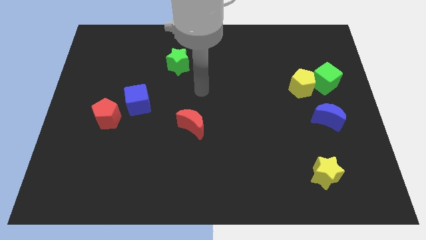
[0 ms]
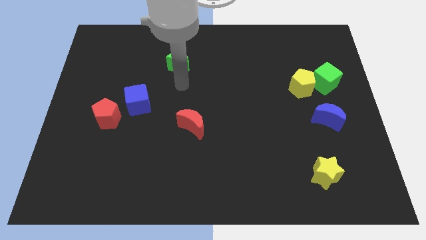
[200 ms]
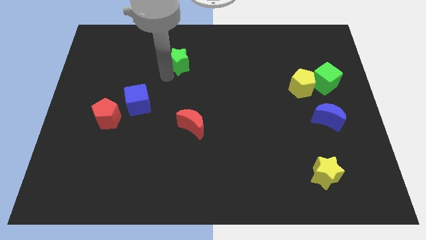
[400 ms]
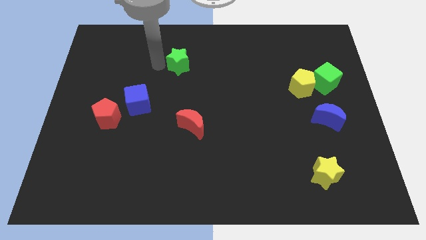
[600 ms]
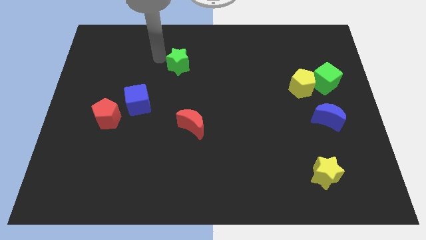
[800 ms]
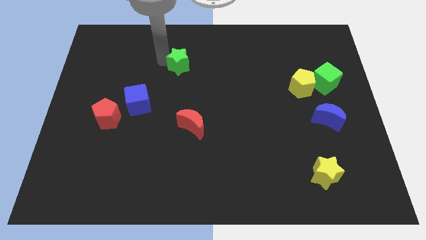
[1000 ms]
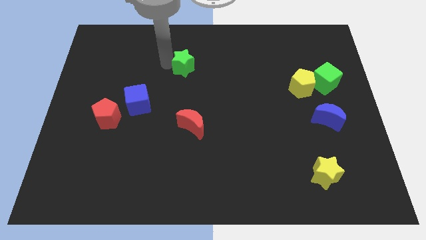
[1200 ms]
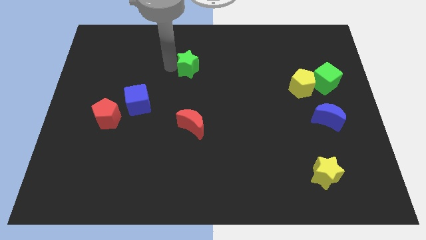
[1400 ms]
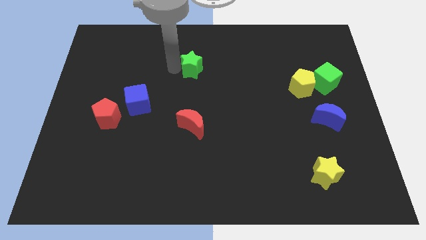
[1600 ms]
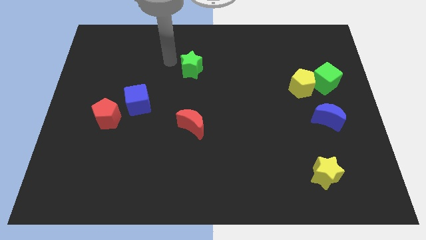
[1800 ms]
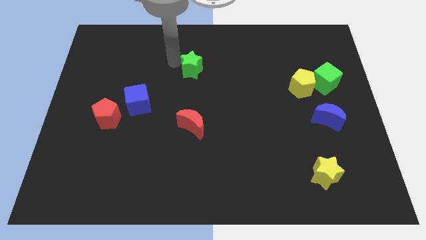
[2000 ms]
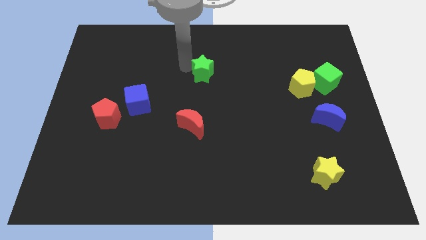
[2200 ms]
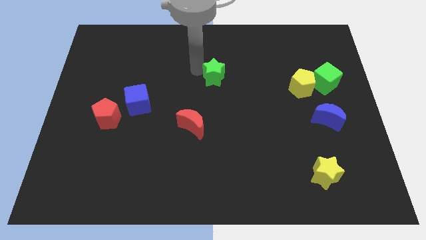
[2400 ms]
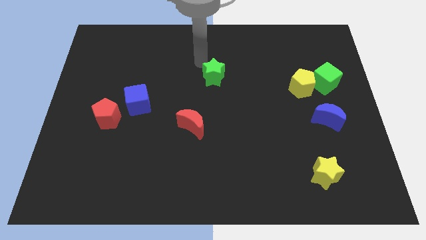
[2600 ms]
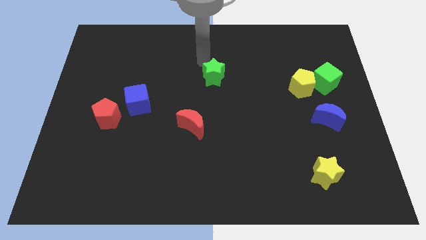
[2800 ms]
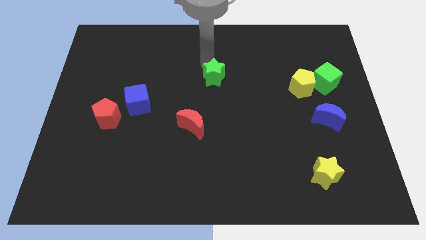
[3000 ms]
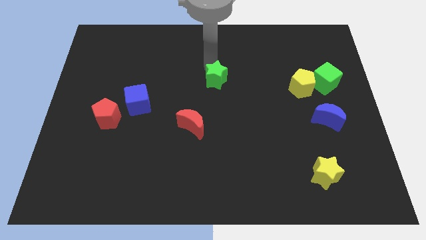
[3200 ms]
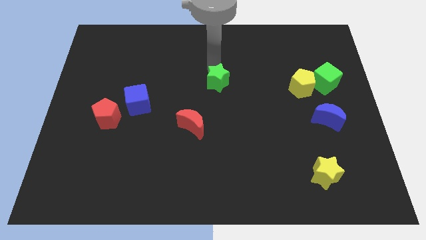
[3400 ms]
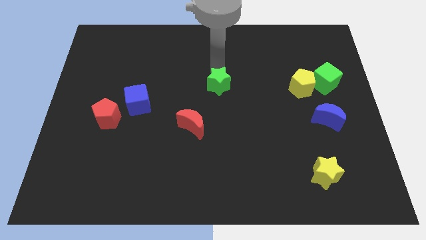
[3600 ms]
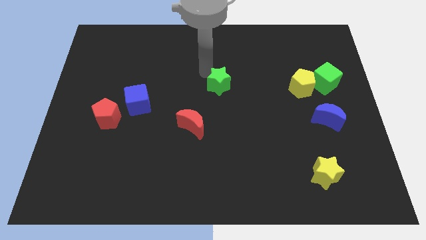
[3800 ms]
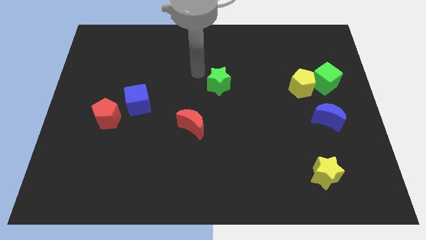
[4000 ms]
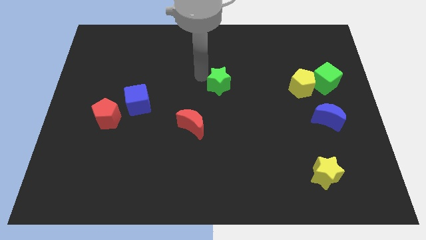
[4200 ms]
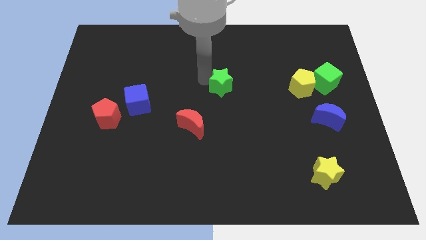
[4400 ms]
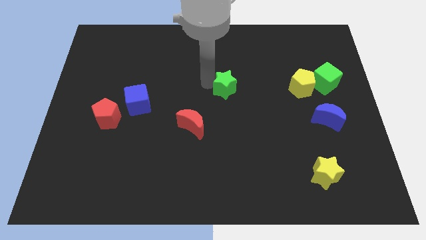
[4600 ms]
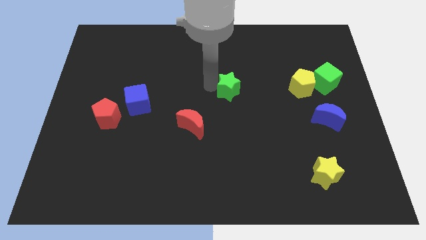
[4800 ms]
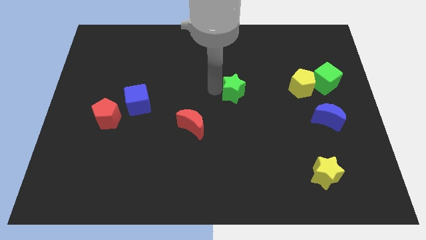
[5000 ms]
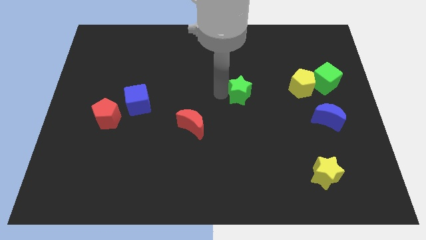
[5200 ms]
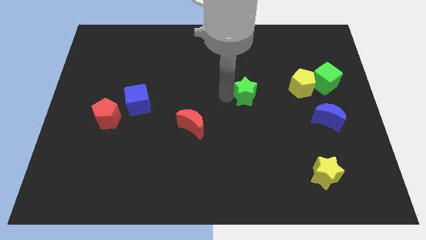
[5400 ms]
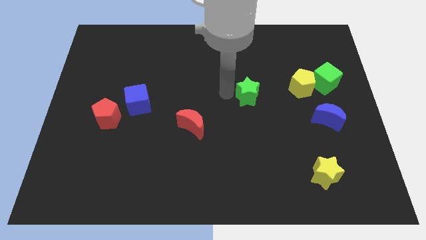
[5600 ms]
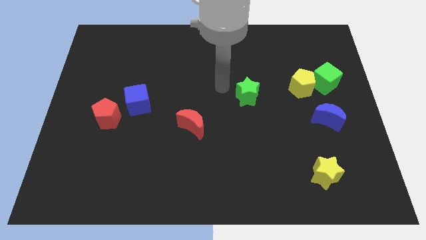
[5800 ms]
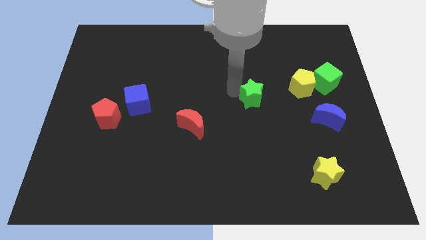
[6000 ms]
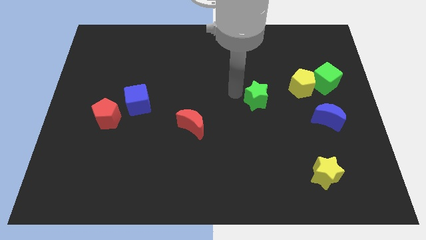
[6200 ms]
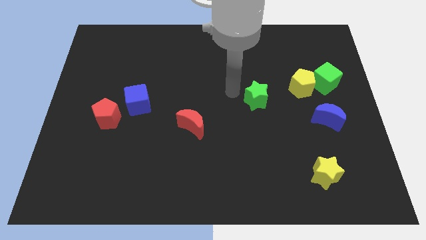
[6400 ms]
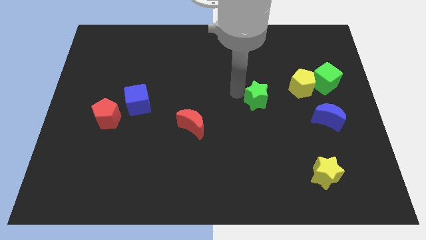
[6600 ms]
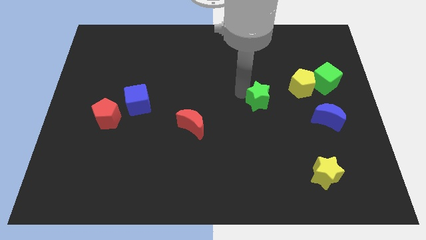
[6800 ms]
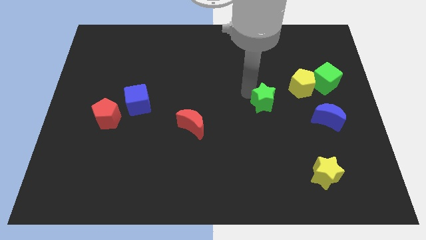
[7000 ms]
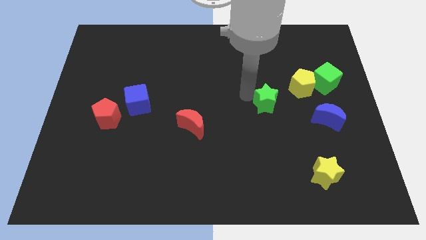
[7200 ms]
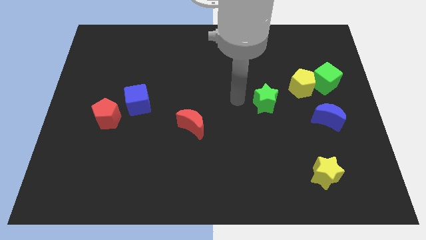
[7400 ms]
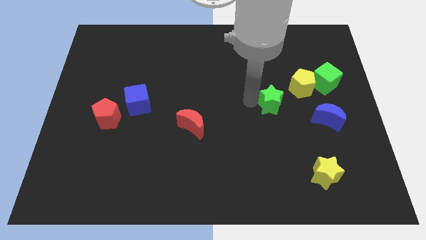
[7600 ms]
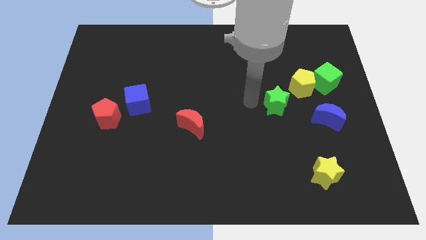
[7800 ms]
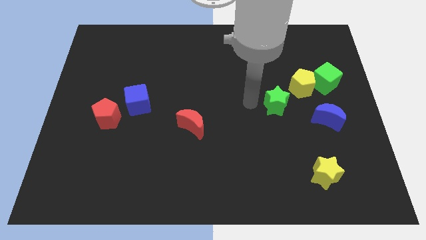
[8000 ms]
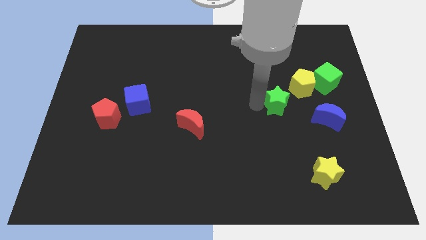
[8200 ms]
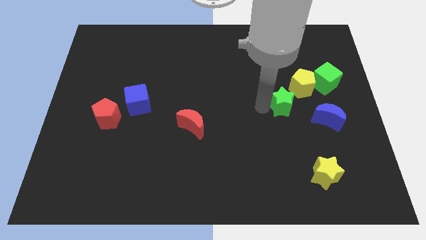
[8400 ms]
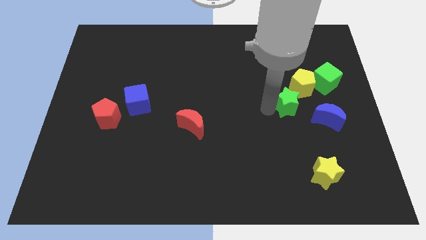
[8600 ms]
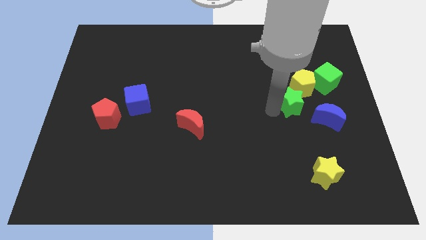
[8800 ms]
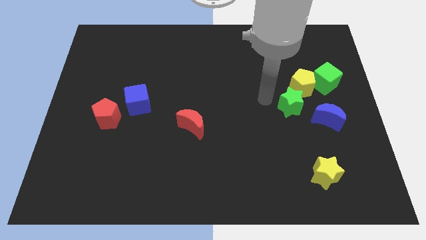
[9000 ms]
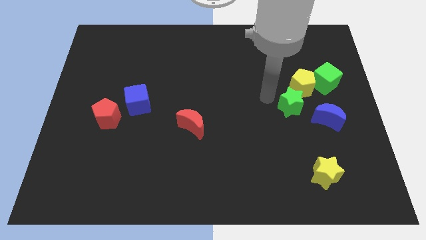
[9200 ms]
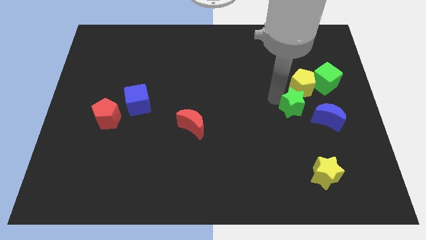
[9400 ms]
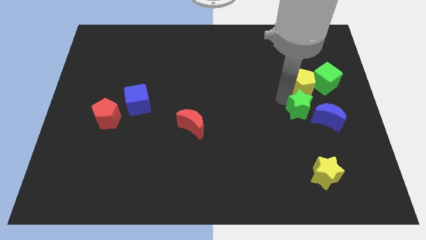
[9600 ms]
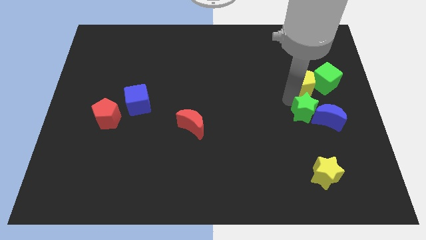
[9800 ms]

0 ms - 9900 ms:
move the green star close to the blue moon

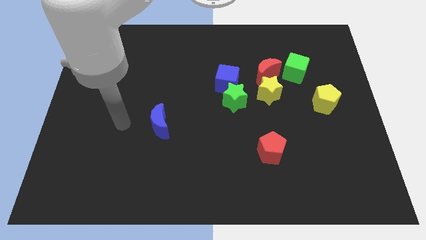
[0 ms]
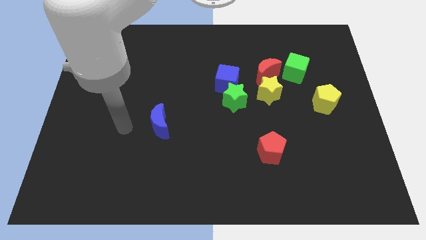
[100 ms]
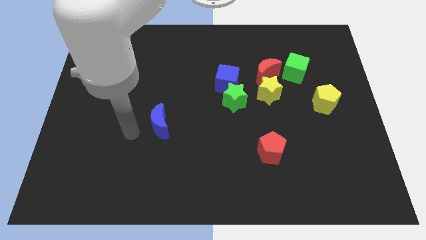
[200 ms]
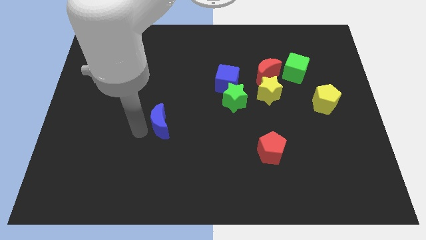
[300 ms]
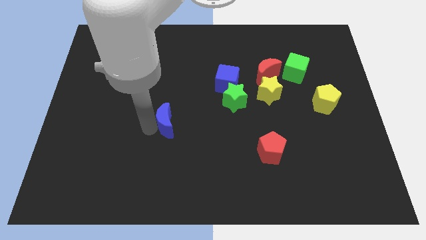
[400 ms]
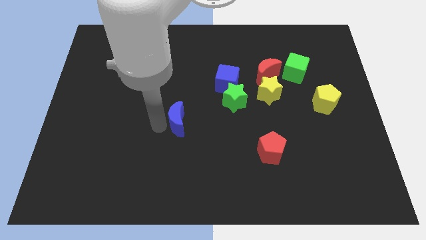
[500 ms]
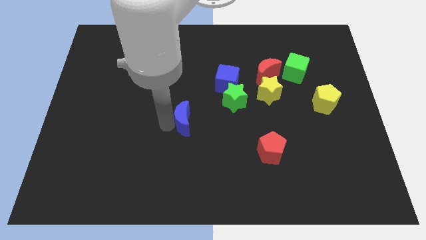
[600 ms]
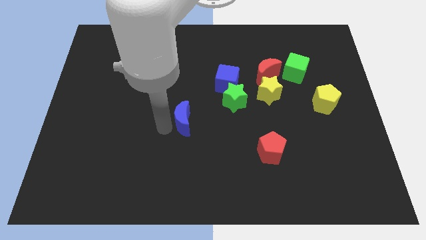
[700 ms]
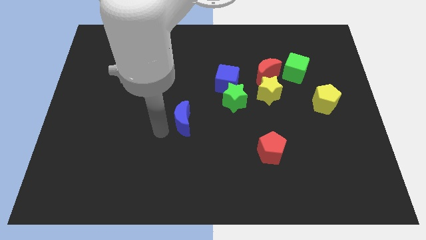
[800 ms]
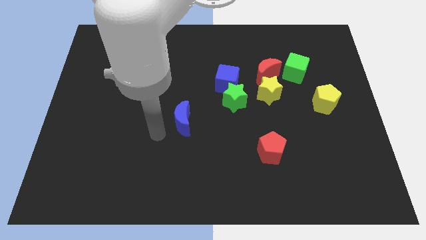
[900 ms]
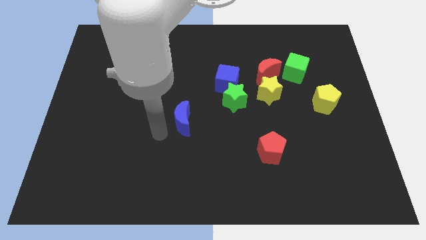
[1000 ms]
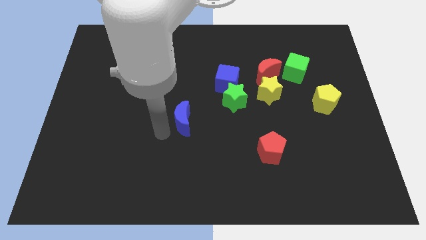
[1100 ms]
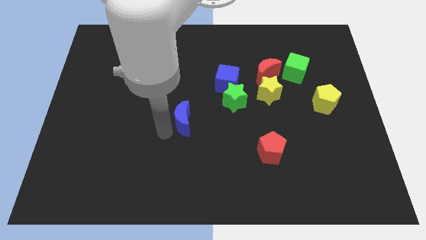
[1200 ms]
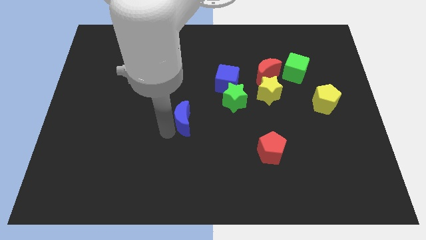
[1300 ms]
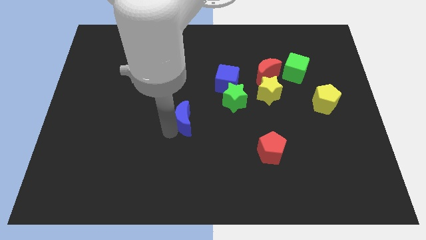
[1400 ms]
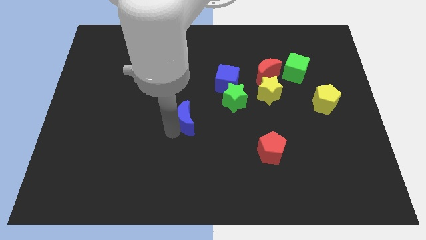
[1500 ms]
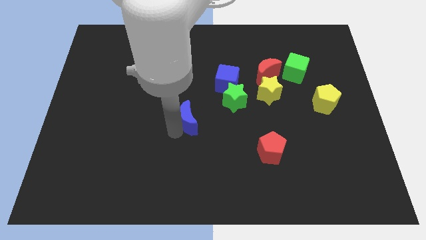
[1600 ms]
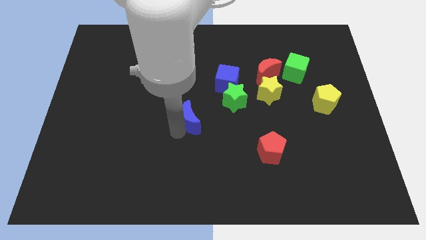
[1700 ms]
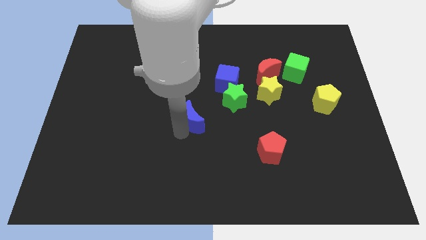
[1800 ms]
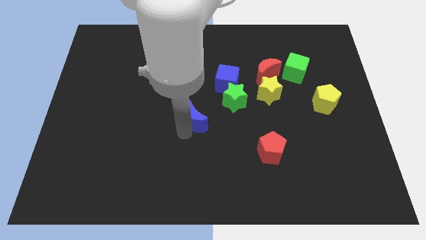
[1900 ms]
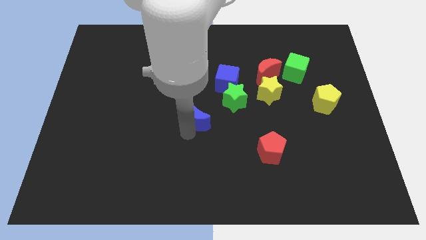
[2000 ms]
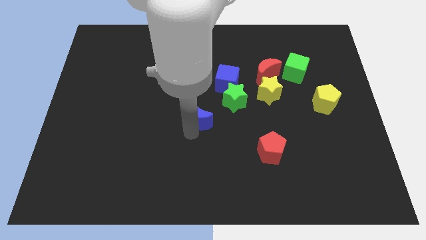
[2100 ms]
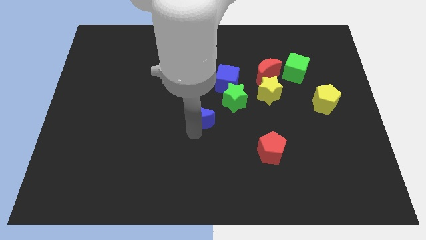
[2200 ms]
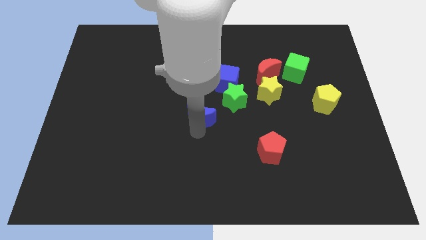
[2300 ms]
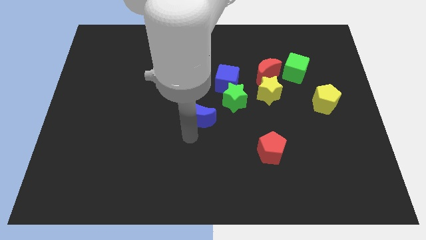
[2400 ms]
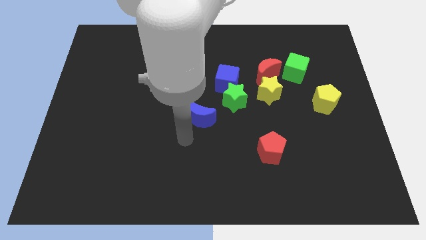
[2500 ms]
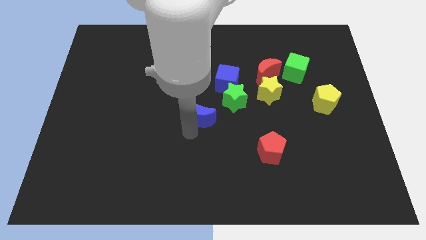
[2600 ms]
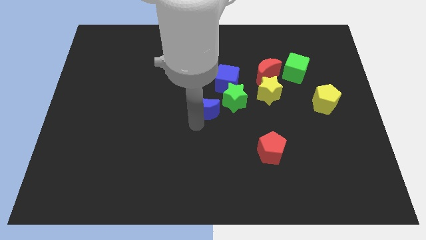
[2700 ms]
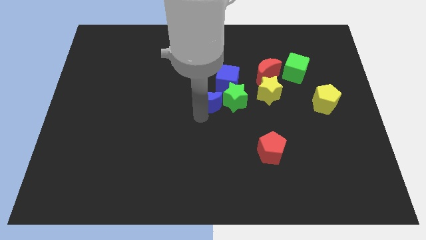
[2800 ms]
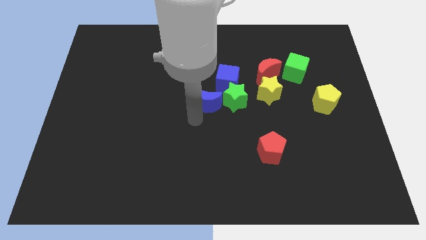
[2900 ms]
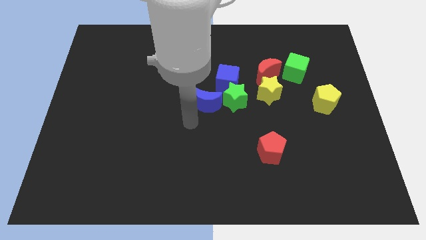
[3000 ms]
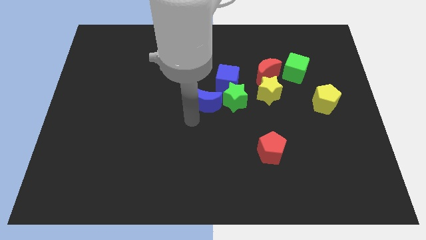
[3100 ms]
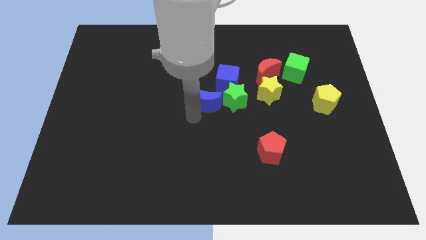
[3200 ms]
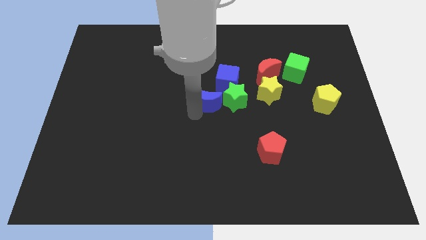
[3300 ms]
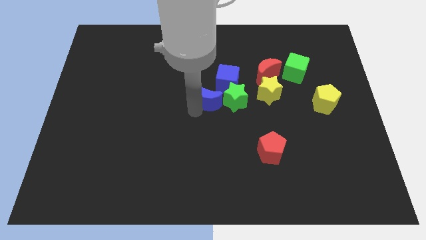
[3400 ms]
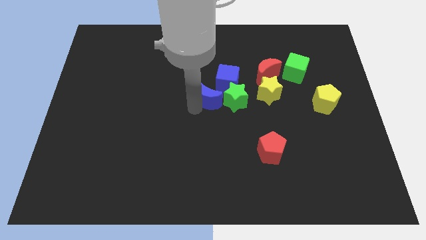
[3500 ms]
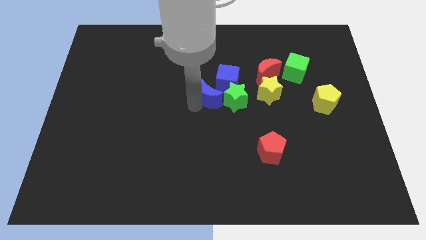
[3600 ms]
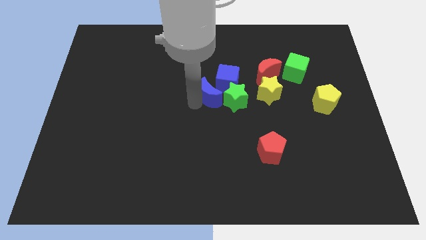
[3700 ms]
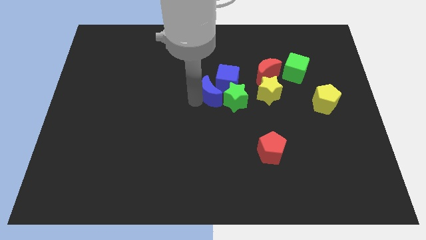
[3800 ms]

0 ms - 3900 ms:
push the blue moon next to the blue cube
